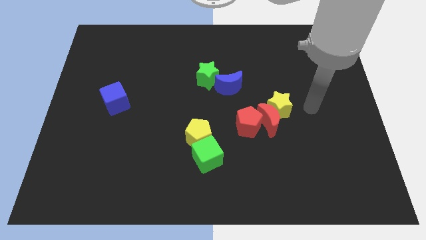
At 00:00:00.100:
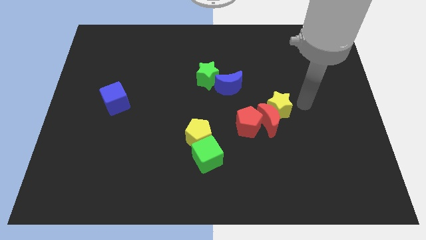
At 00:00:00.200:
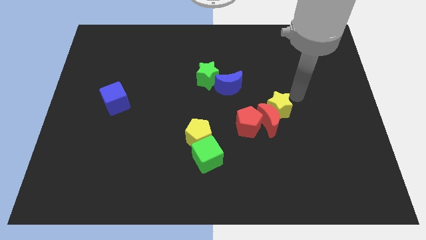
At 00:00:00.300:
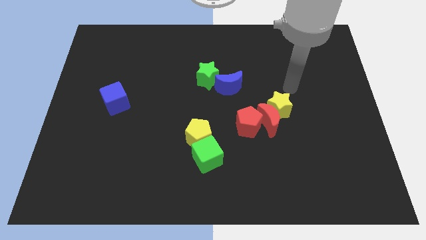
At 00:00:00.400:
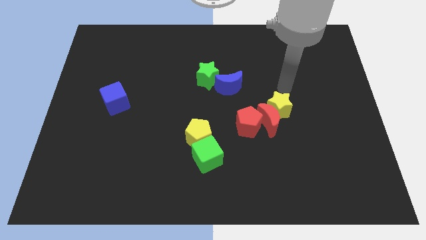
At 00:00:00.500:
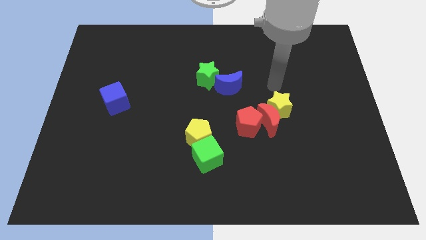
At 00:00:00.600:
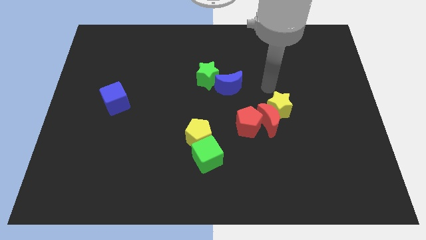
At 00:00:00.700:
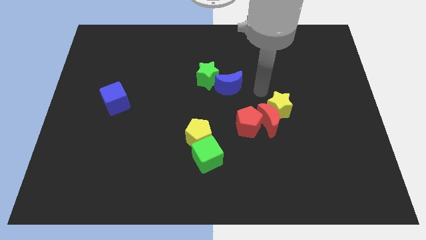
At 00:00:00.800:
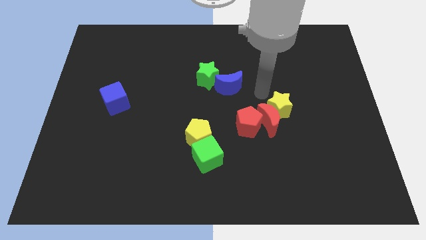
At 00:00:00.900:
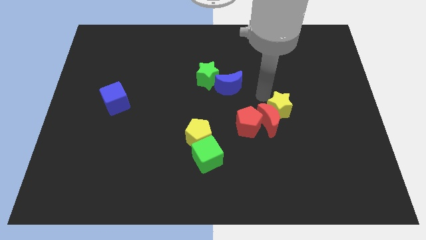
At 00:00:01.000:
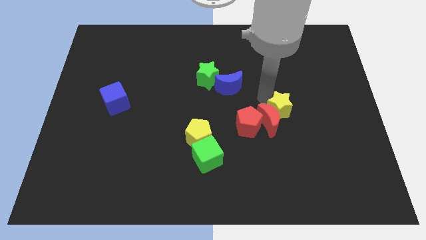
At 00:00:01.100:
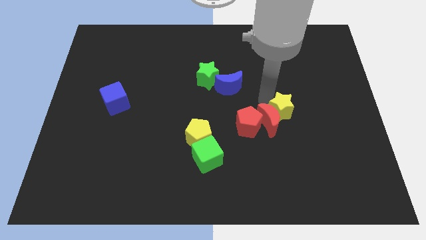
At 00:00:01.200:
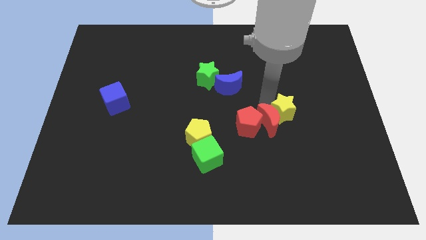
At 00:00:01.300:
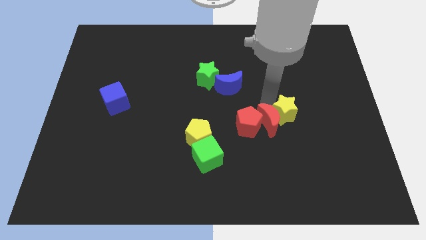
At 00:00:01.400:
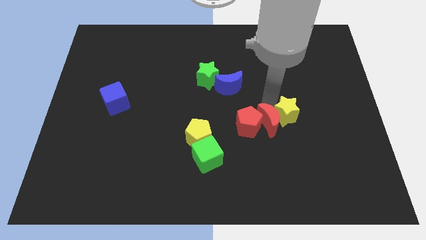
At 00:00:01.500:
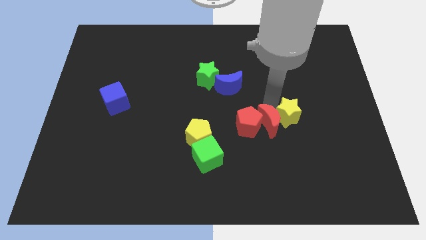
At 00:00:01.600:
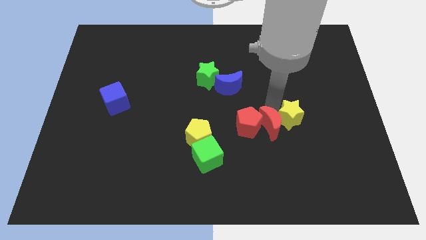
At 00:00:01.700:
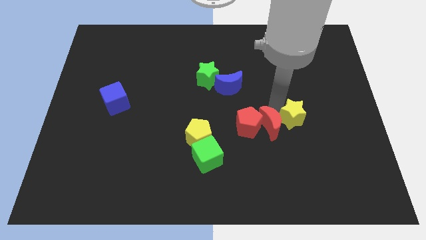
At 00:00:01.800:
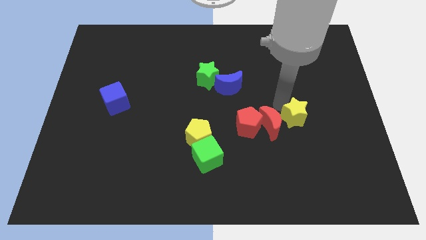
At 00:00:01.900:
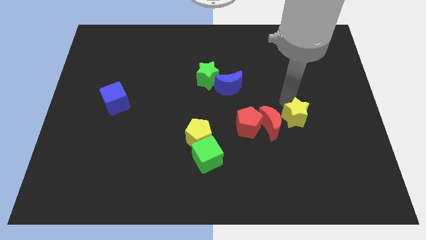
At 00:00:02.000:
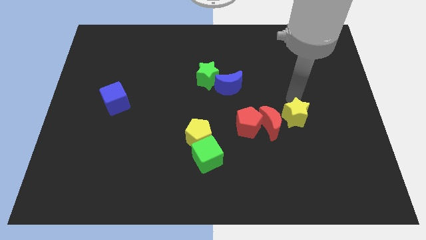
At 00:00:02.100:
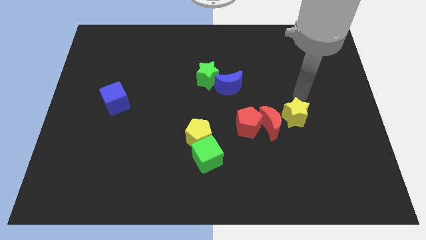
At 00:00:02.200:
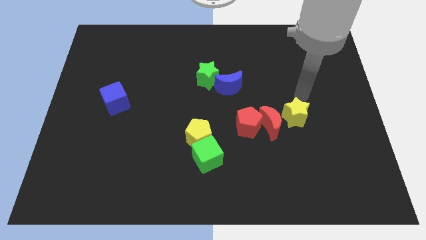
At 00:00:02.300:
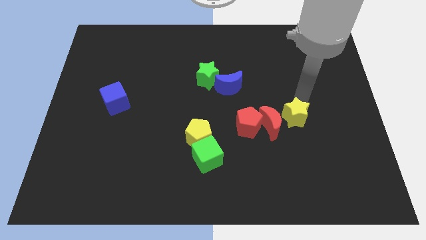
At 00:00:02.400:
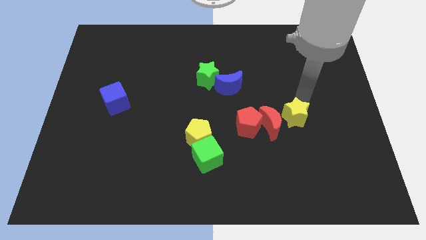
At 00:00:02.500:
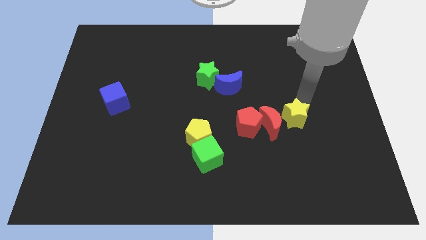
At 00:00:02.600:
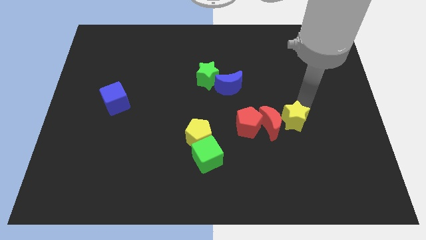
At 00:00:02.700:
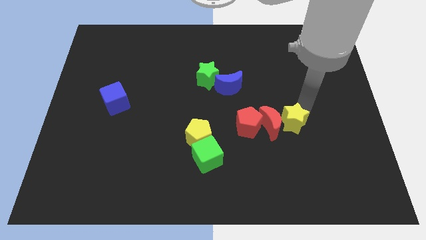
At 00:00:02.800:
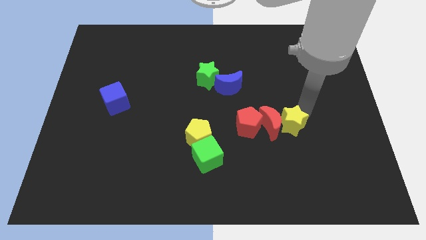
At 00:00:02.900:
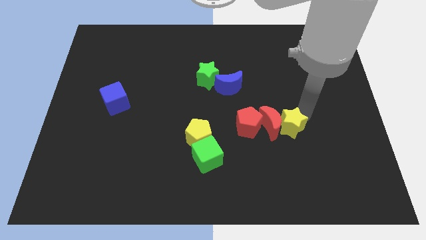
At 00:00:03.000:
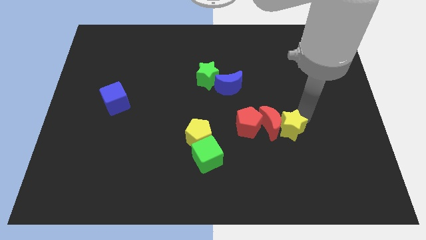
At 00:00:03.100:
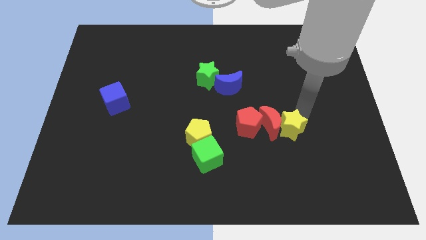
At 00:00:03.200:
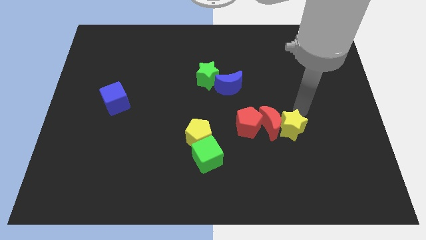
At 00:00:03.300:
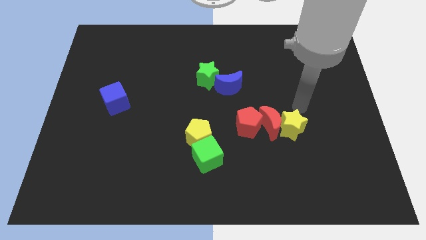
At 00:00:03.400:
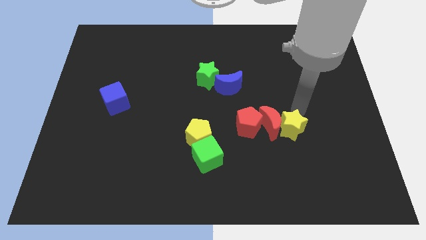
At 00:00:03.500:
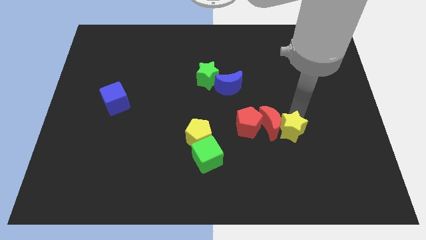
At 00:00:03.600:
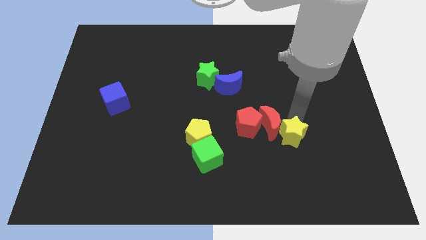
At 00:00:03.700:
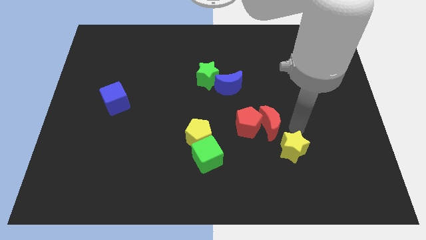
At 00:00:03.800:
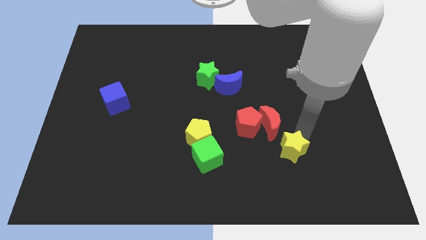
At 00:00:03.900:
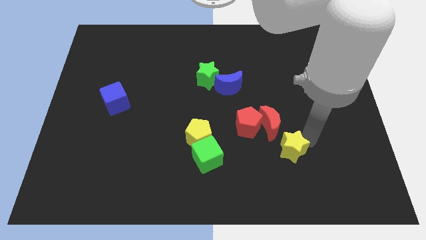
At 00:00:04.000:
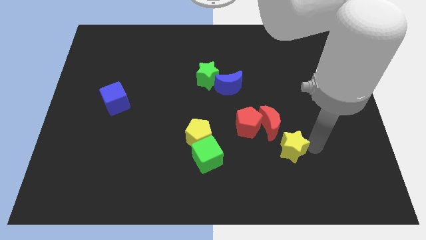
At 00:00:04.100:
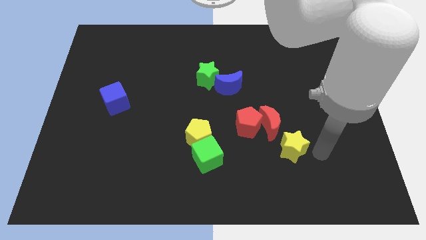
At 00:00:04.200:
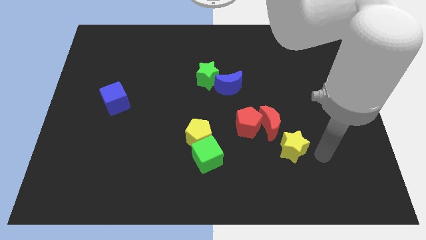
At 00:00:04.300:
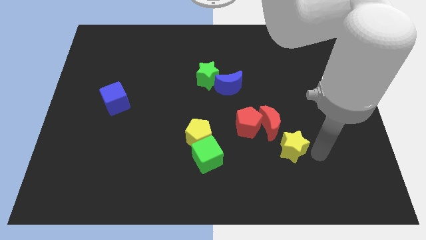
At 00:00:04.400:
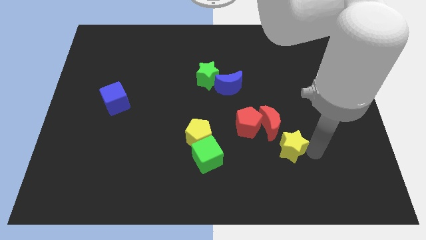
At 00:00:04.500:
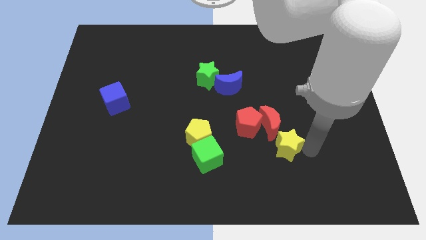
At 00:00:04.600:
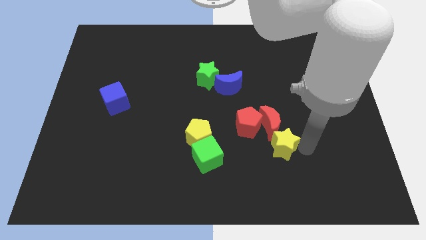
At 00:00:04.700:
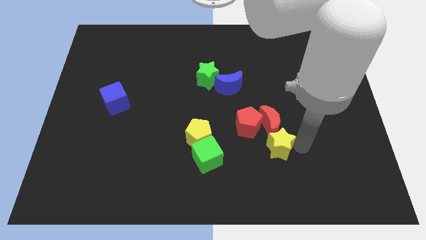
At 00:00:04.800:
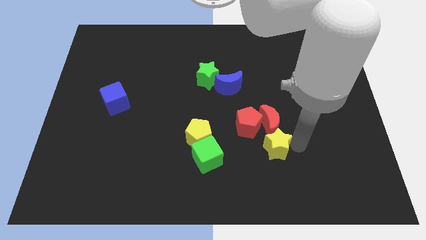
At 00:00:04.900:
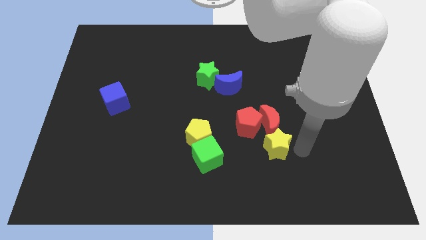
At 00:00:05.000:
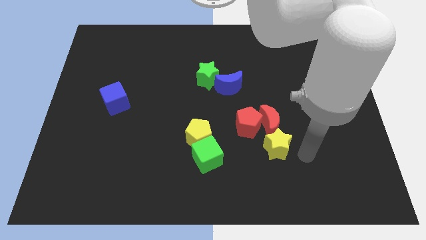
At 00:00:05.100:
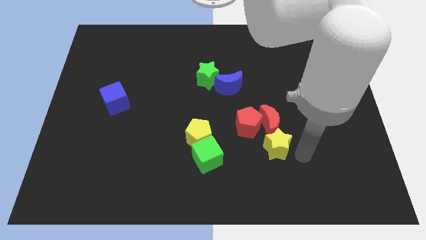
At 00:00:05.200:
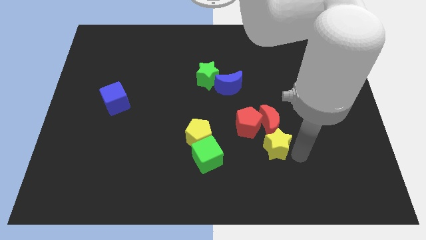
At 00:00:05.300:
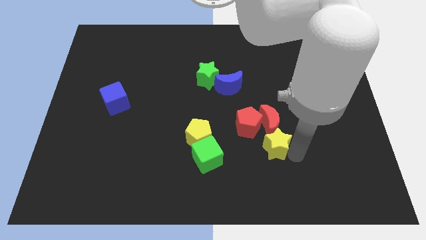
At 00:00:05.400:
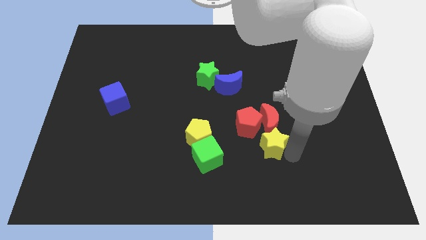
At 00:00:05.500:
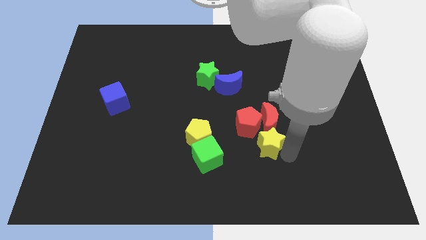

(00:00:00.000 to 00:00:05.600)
push the yellow star right of the yellow pentagon

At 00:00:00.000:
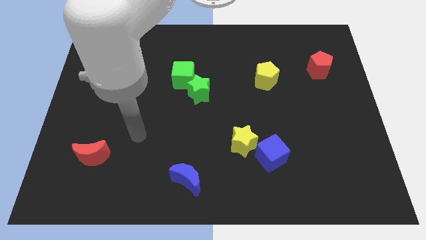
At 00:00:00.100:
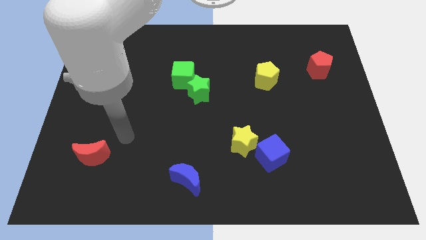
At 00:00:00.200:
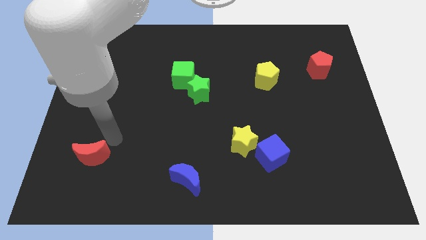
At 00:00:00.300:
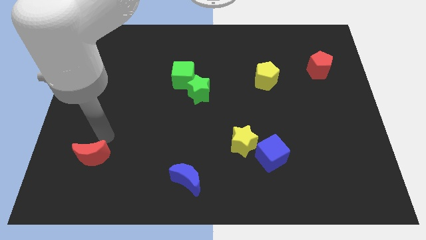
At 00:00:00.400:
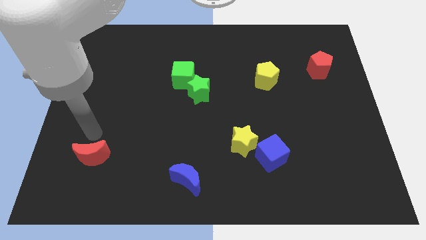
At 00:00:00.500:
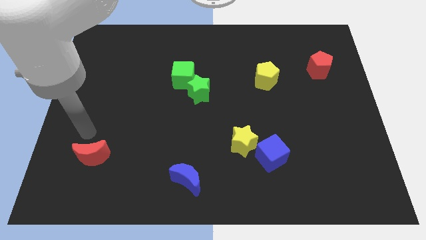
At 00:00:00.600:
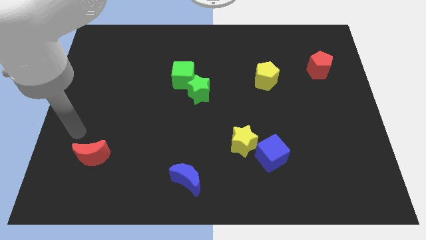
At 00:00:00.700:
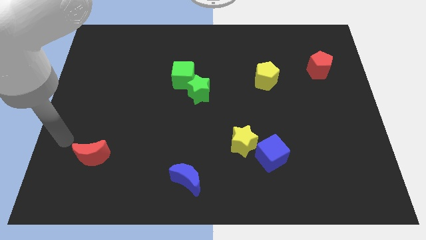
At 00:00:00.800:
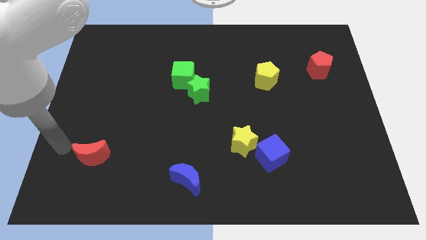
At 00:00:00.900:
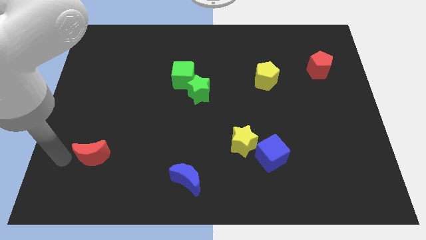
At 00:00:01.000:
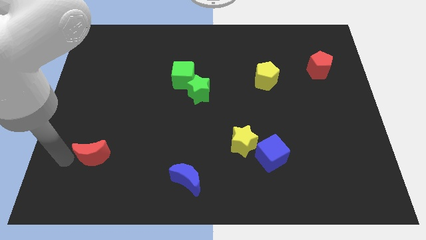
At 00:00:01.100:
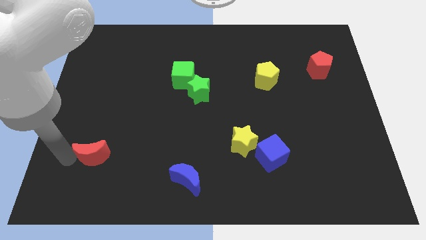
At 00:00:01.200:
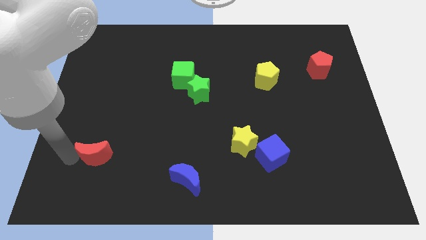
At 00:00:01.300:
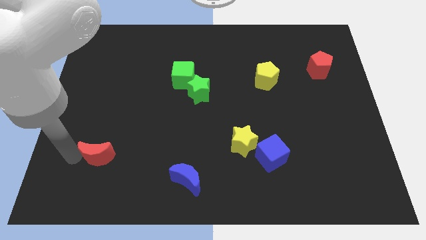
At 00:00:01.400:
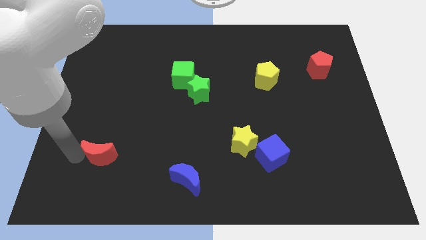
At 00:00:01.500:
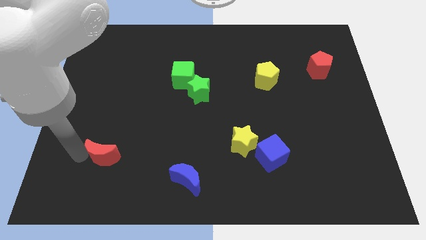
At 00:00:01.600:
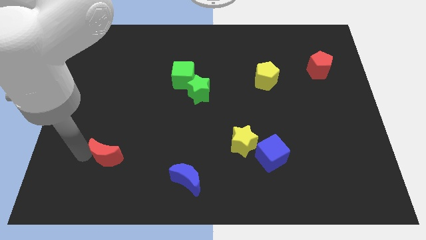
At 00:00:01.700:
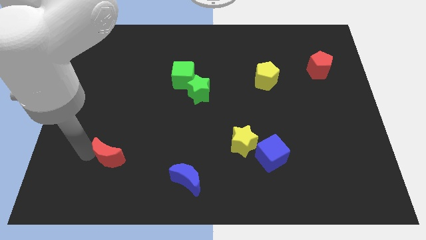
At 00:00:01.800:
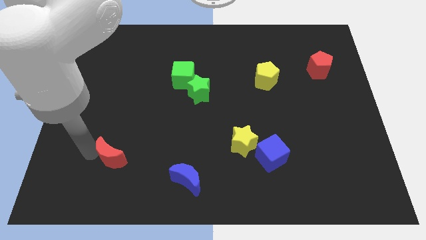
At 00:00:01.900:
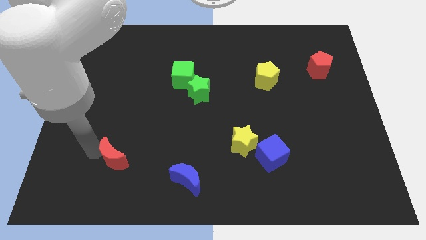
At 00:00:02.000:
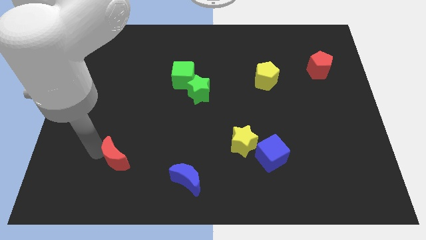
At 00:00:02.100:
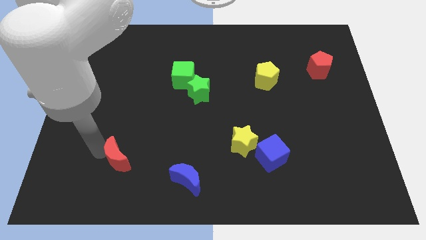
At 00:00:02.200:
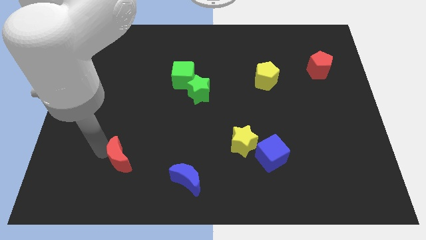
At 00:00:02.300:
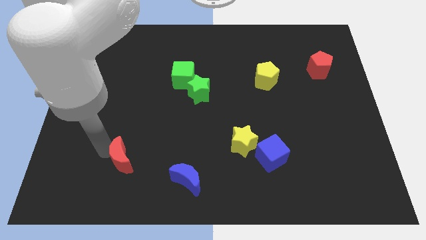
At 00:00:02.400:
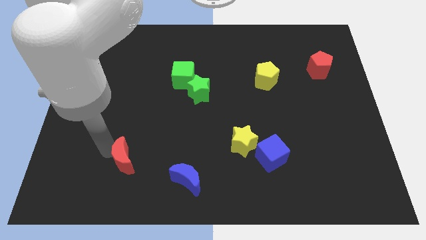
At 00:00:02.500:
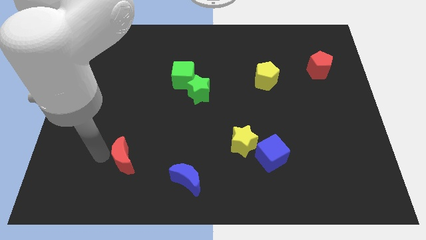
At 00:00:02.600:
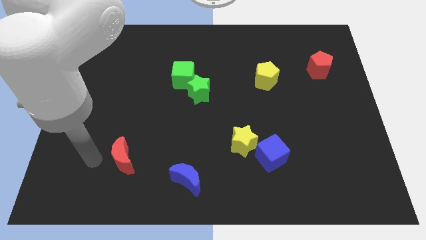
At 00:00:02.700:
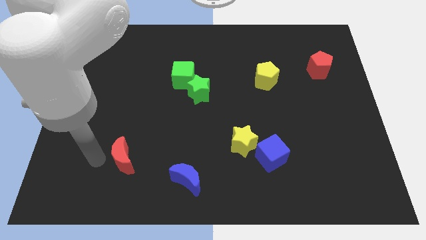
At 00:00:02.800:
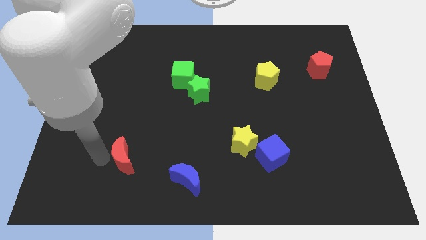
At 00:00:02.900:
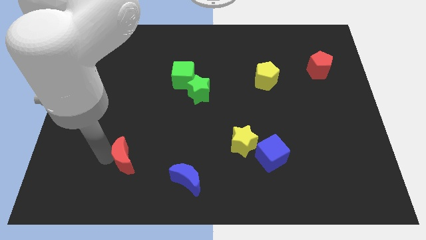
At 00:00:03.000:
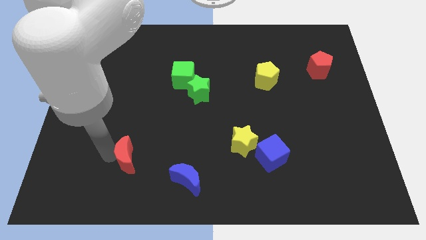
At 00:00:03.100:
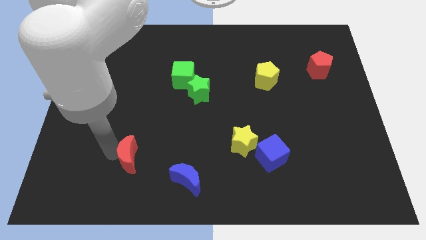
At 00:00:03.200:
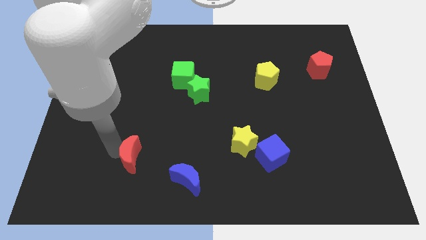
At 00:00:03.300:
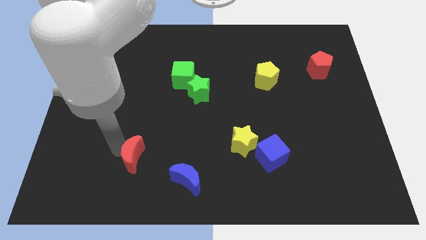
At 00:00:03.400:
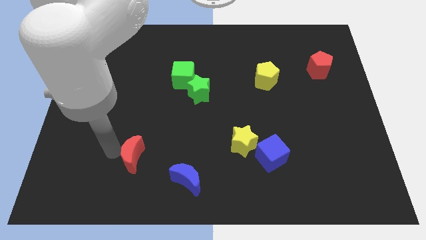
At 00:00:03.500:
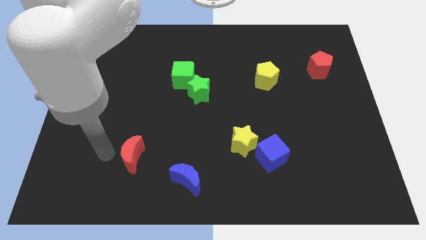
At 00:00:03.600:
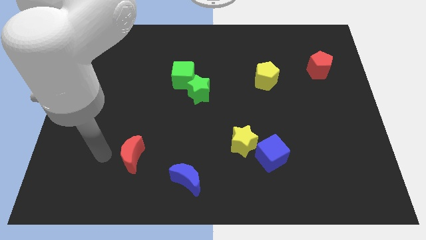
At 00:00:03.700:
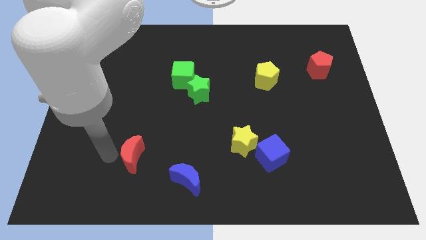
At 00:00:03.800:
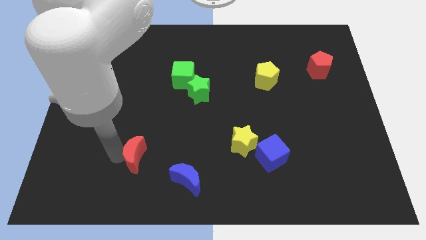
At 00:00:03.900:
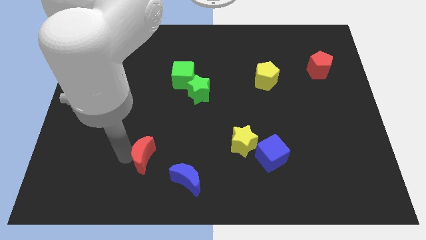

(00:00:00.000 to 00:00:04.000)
put the red moon to the top left of the blue moon
